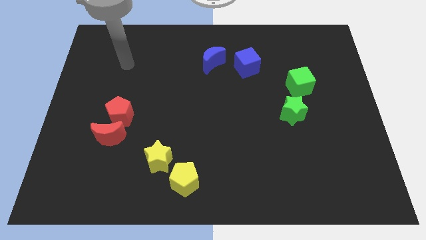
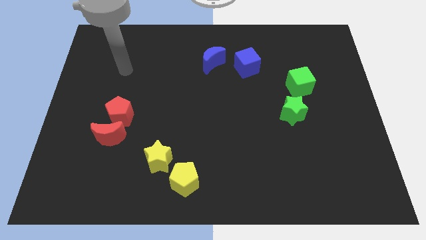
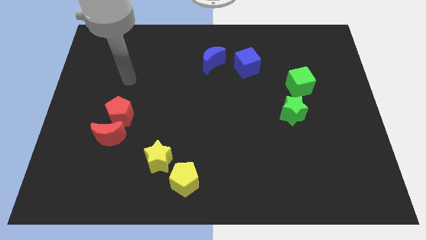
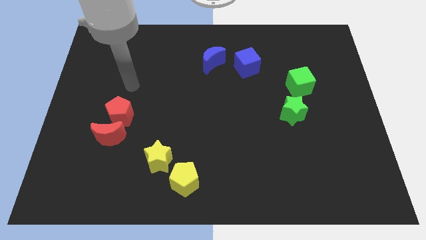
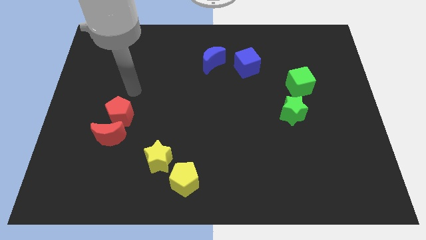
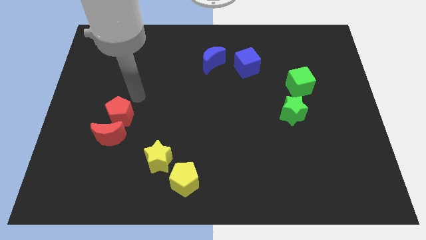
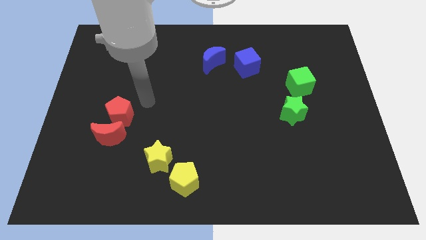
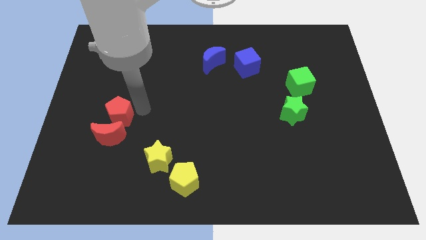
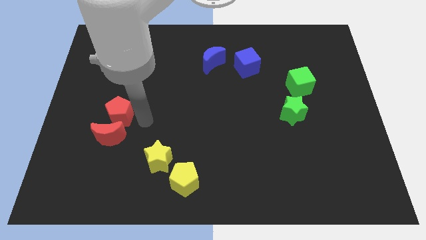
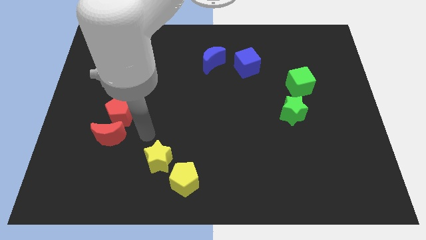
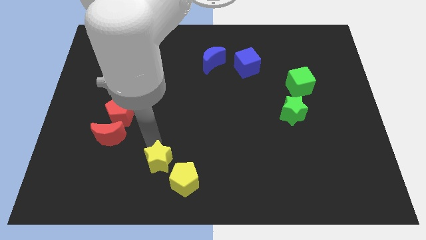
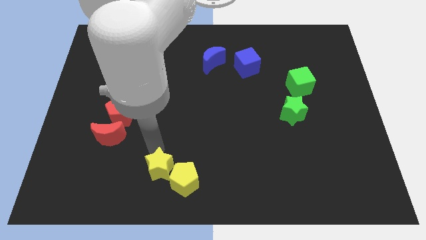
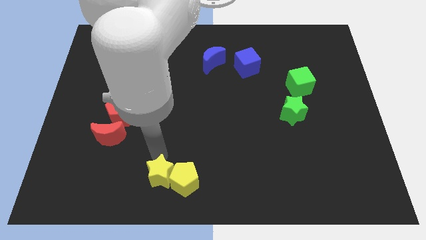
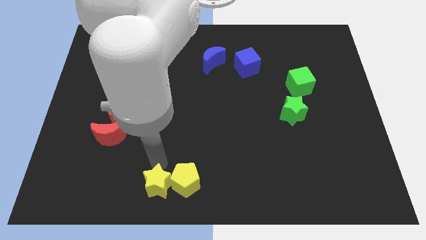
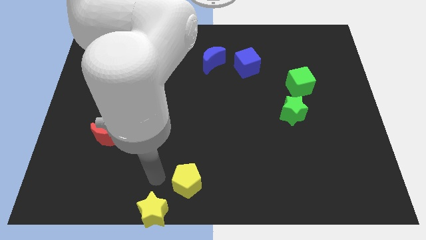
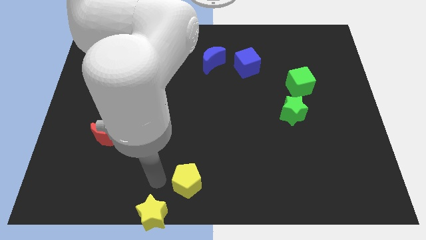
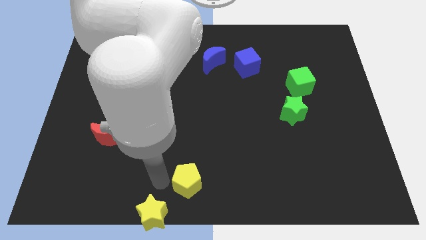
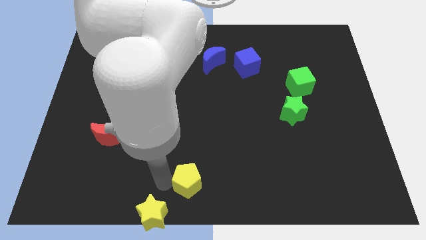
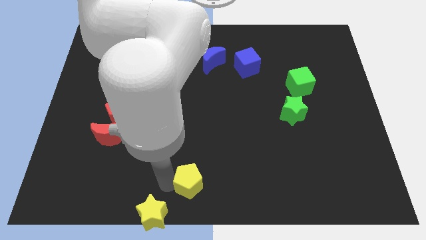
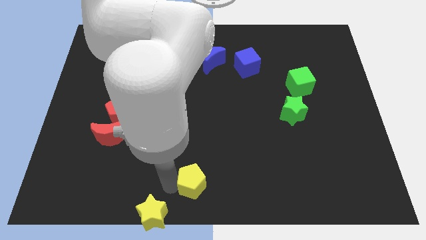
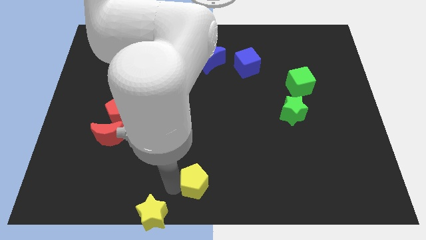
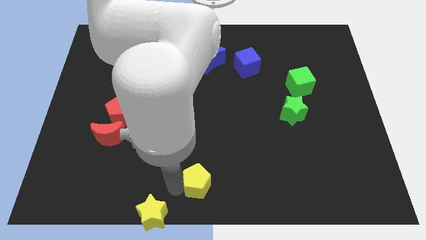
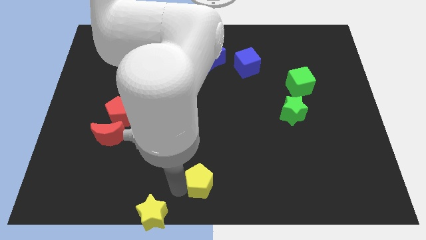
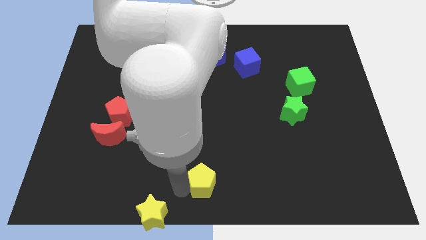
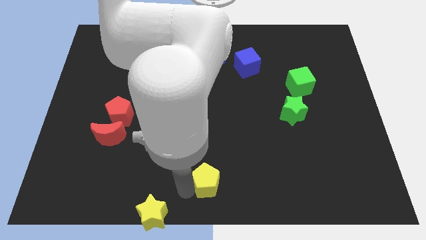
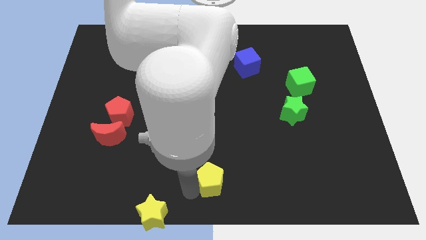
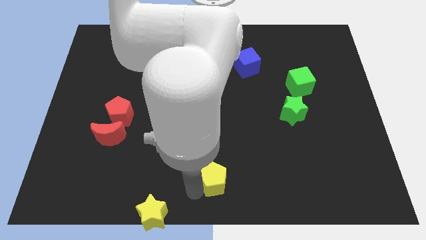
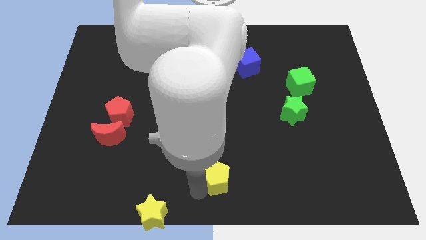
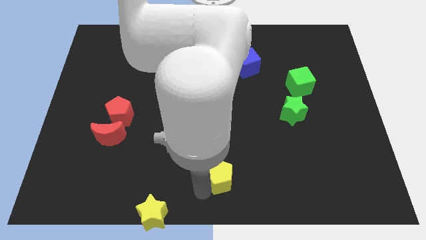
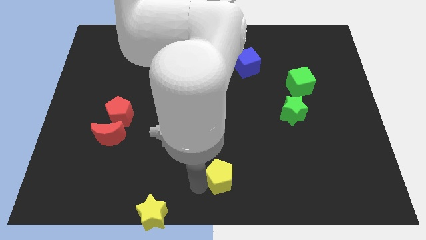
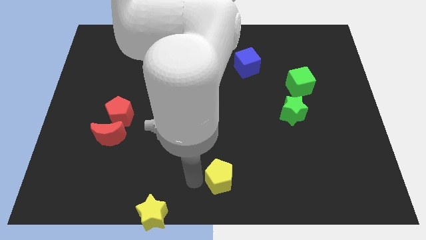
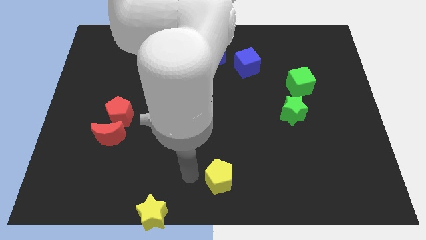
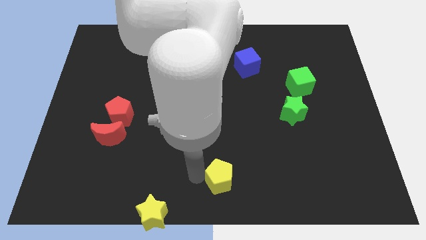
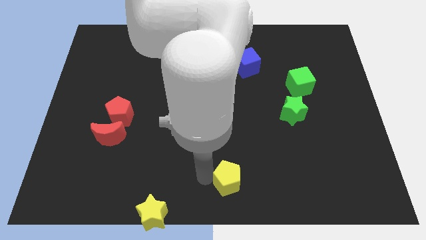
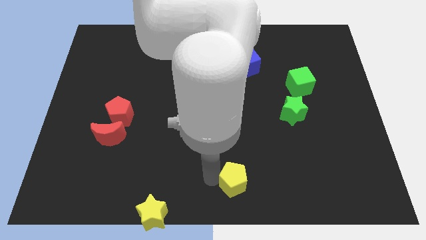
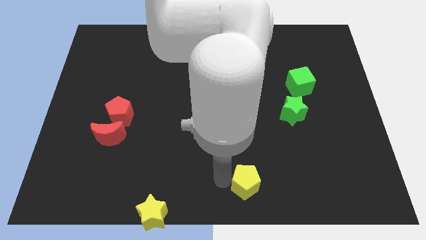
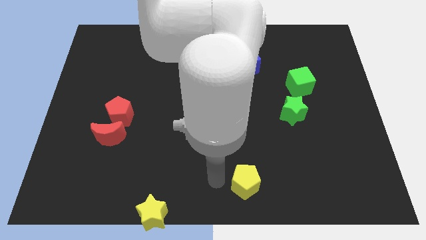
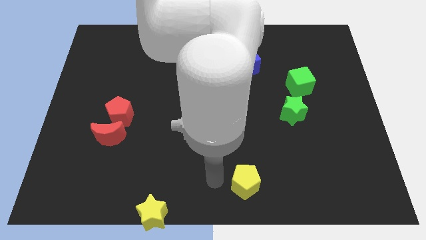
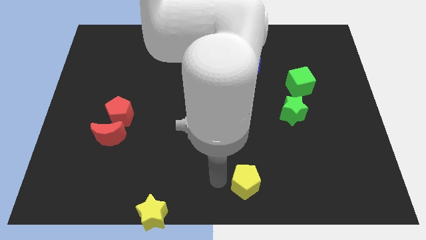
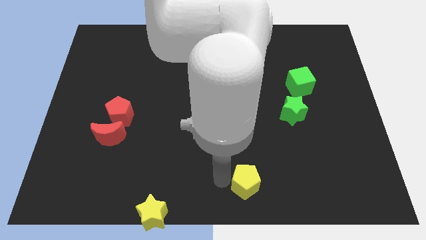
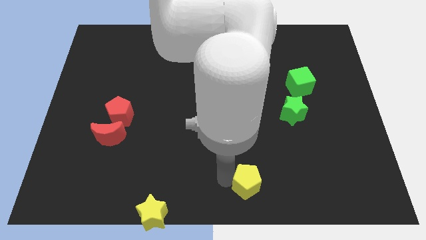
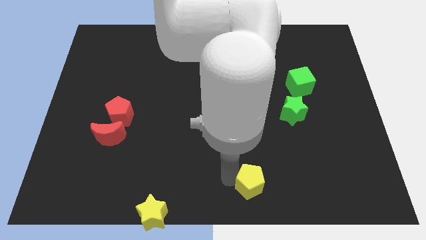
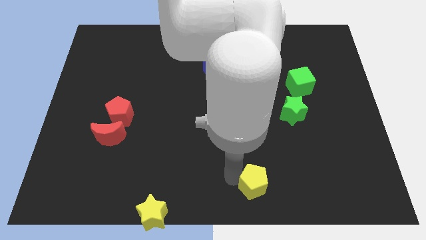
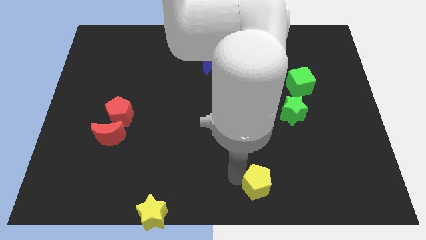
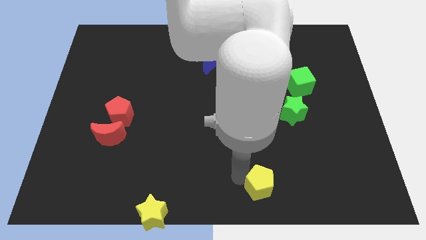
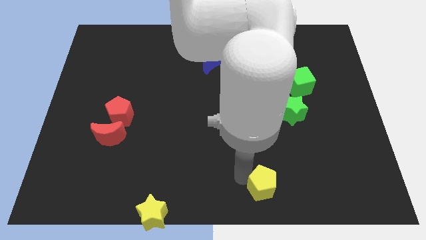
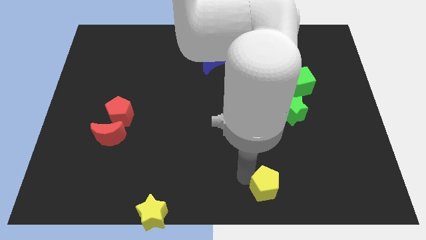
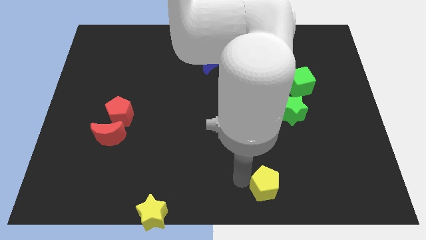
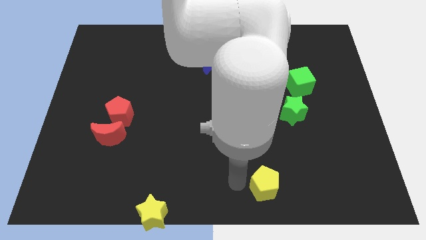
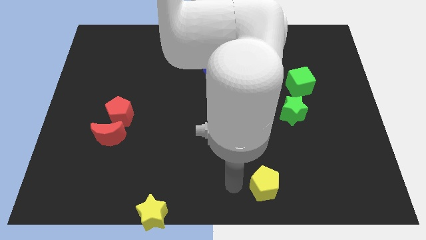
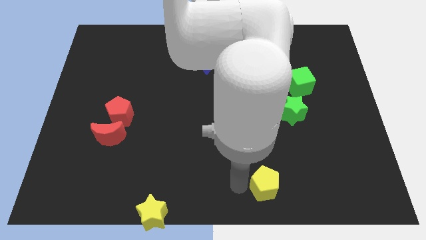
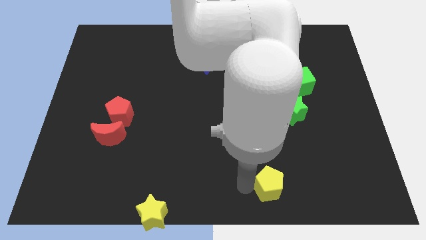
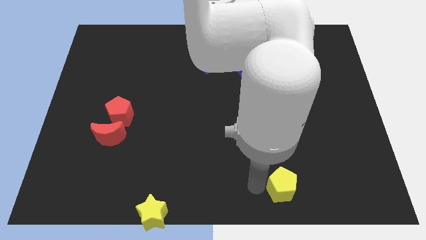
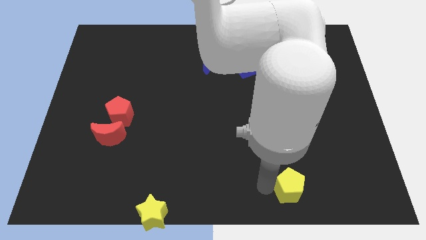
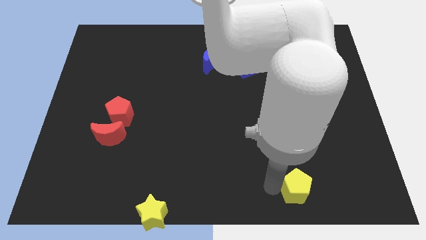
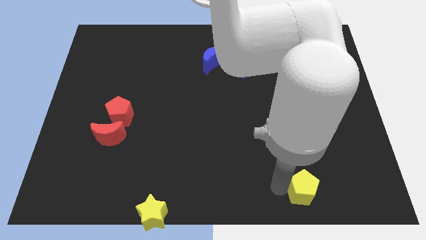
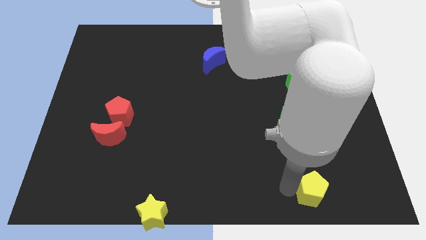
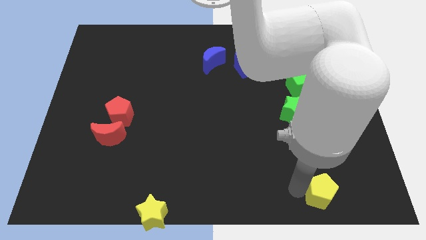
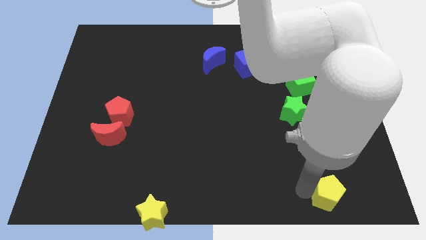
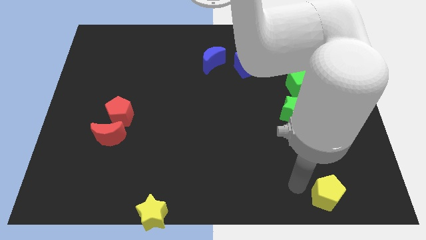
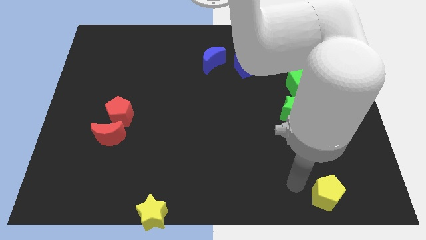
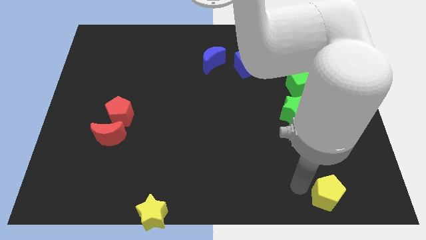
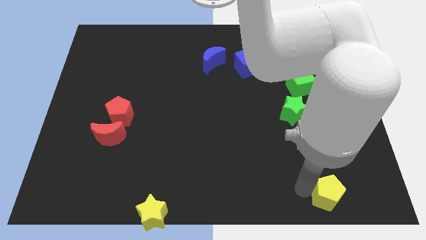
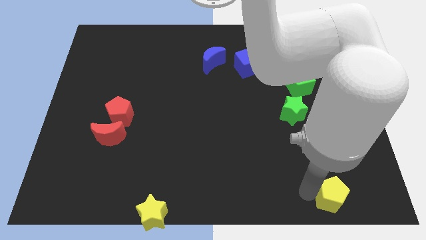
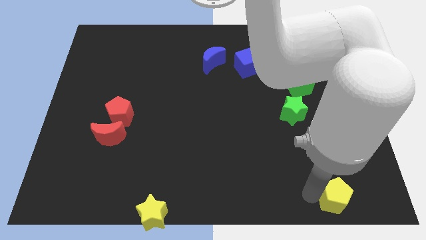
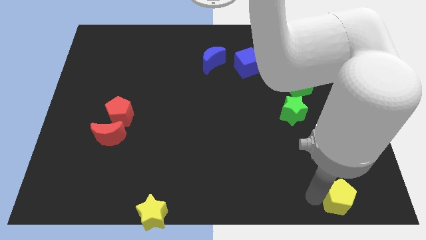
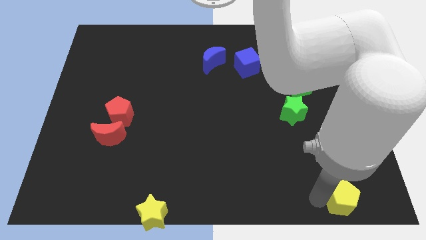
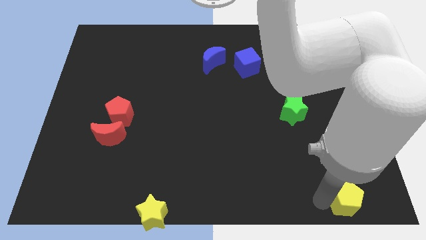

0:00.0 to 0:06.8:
put the yellow pentagon to the bottom right
